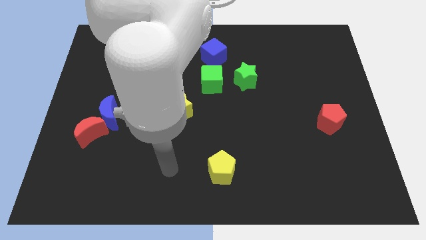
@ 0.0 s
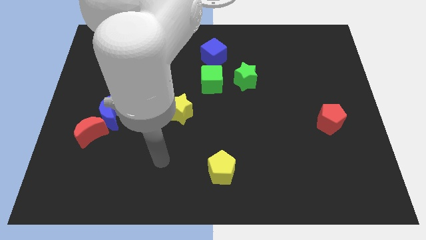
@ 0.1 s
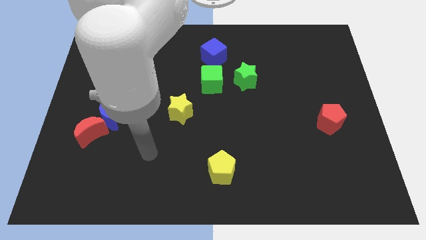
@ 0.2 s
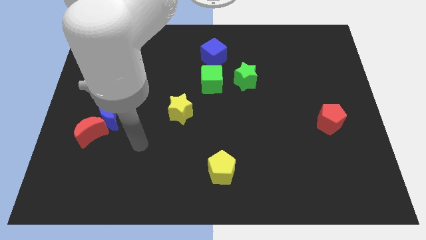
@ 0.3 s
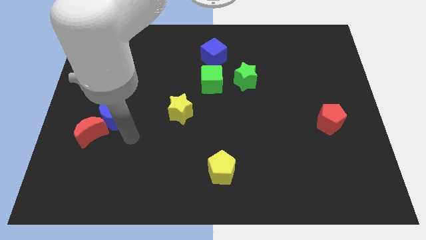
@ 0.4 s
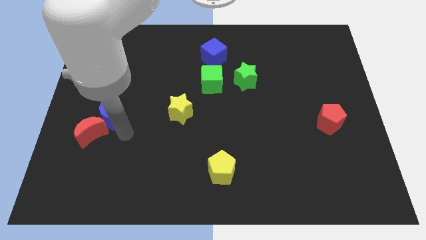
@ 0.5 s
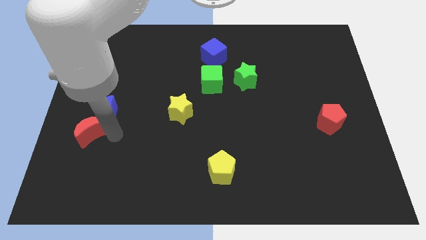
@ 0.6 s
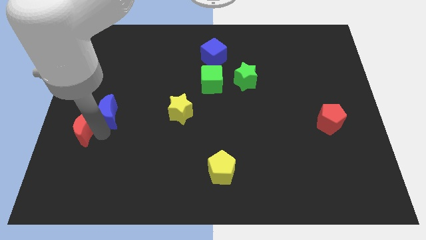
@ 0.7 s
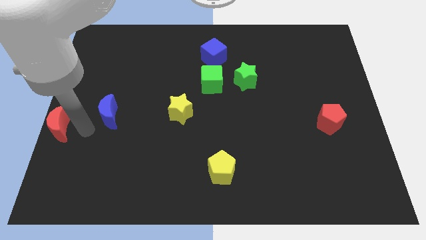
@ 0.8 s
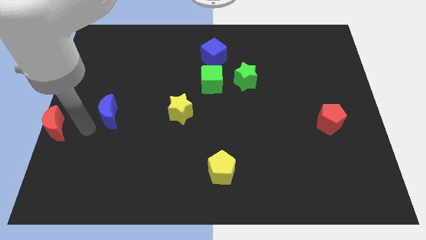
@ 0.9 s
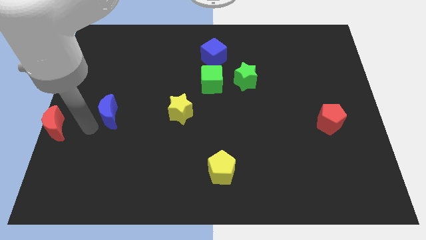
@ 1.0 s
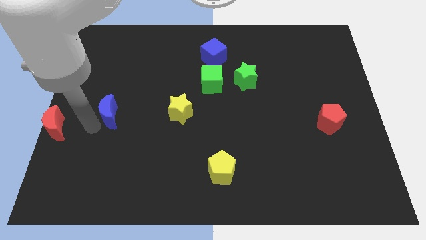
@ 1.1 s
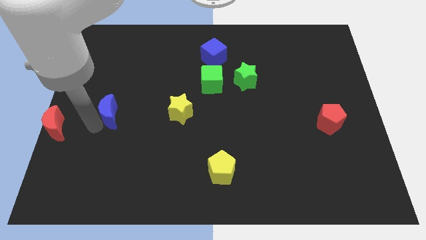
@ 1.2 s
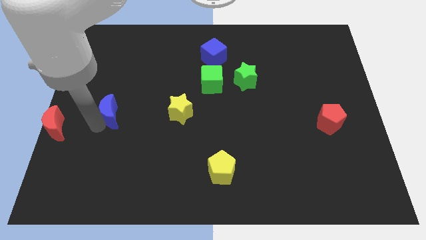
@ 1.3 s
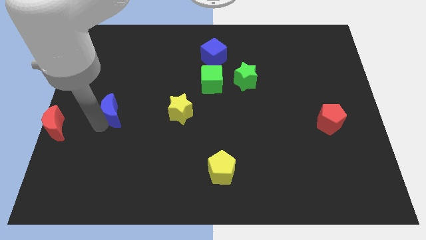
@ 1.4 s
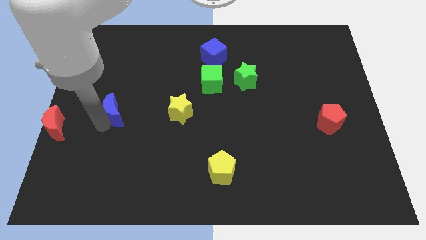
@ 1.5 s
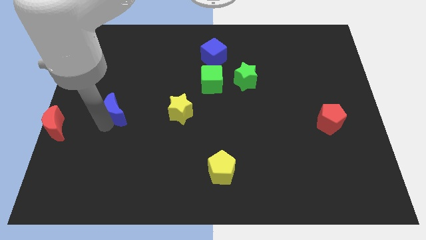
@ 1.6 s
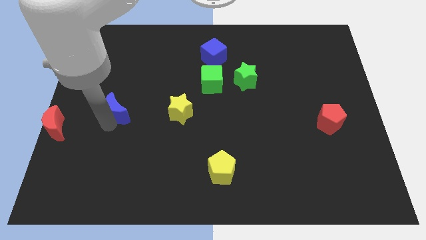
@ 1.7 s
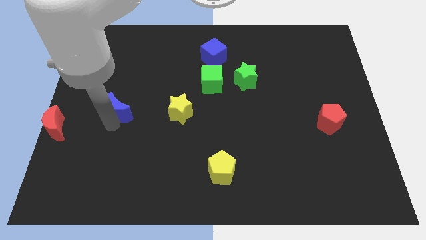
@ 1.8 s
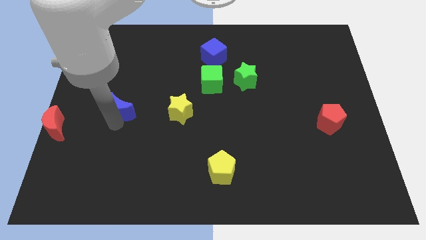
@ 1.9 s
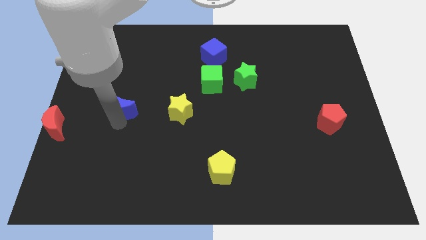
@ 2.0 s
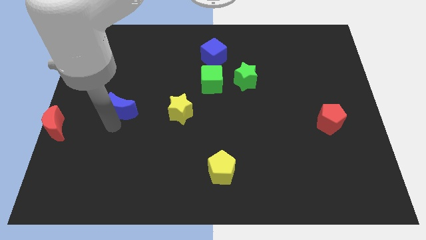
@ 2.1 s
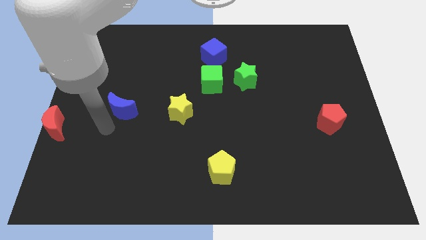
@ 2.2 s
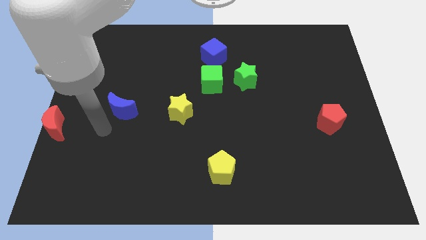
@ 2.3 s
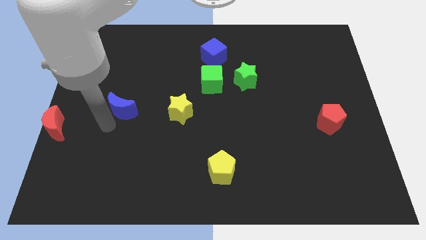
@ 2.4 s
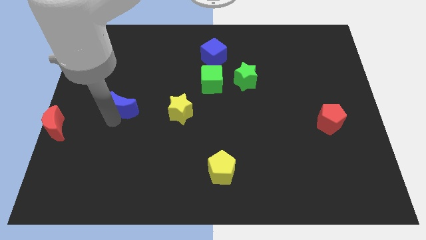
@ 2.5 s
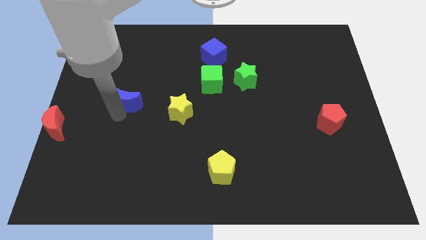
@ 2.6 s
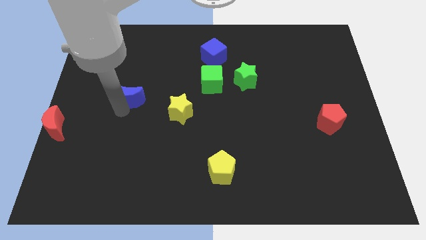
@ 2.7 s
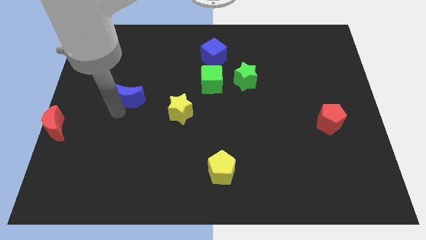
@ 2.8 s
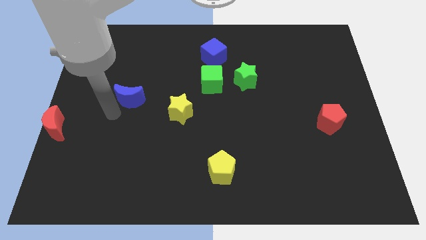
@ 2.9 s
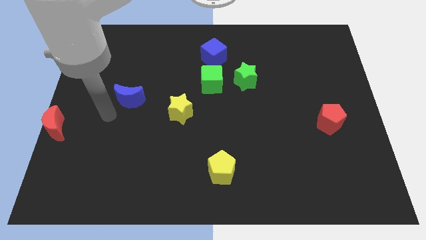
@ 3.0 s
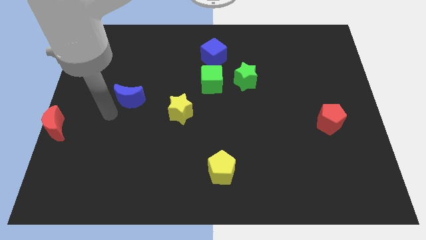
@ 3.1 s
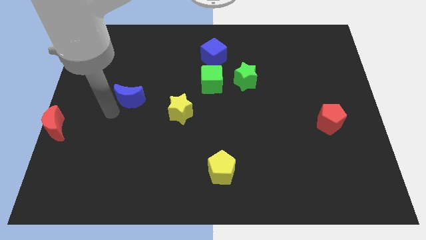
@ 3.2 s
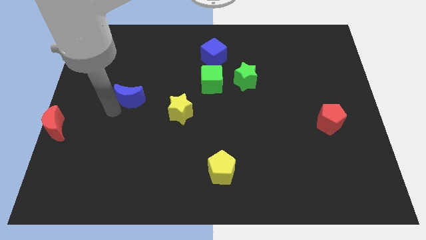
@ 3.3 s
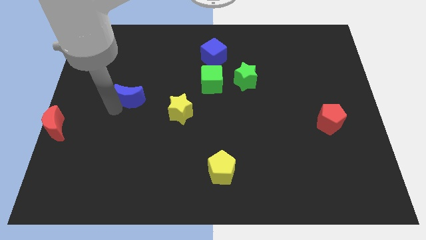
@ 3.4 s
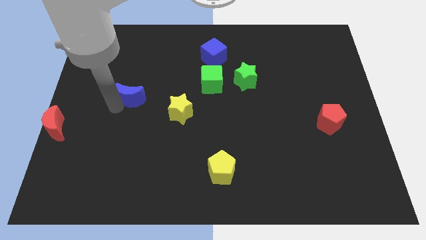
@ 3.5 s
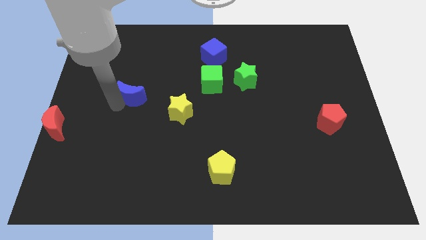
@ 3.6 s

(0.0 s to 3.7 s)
push the blue moon up and then to the right slightly

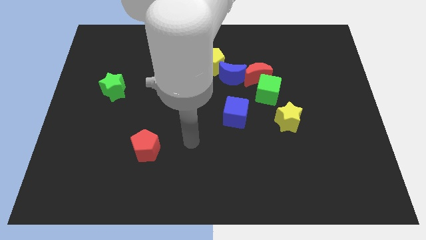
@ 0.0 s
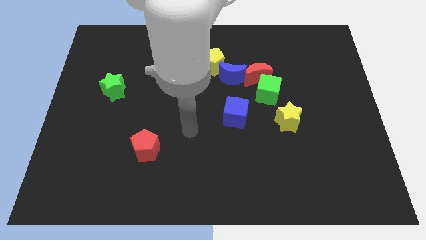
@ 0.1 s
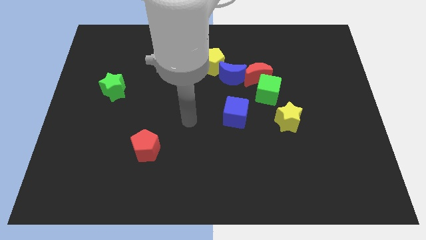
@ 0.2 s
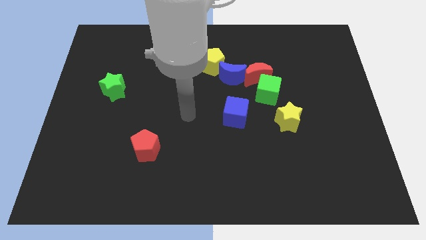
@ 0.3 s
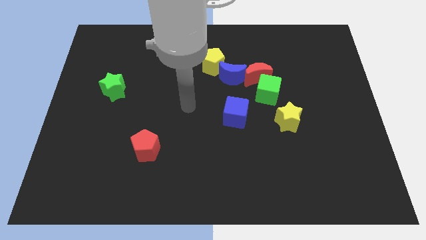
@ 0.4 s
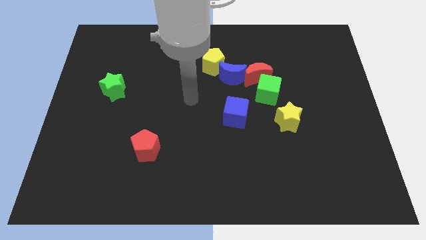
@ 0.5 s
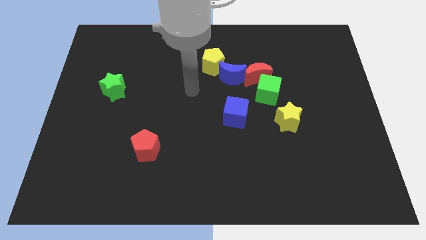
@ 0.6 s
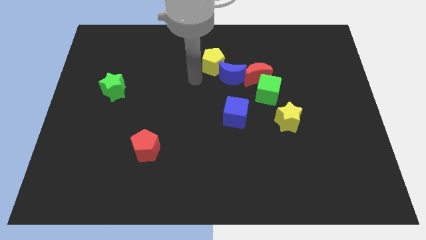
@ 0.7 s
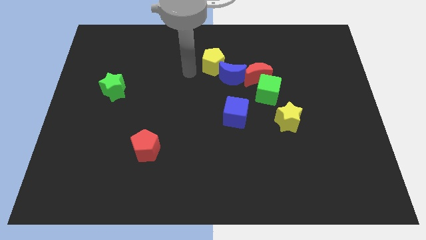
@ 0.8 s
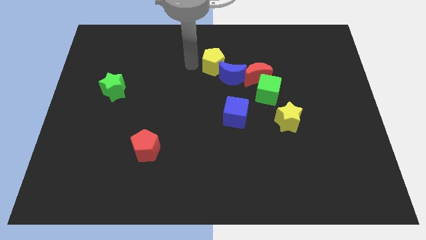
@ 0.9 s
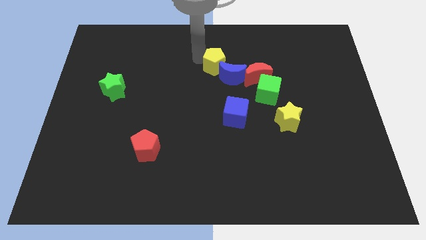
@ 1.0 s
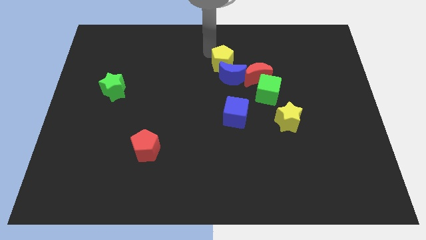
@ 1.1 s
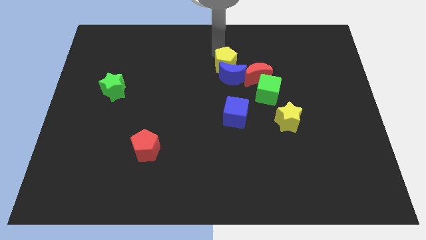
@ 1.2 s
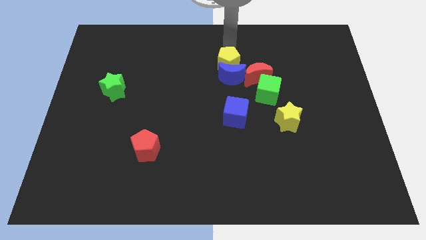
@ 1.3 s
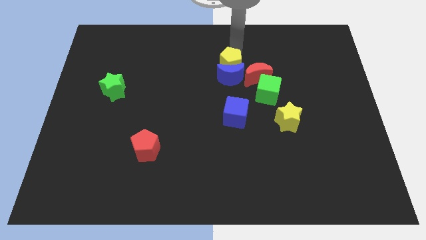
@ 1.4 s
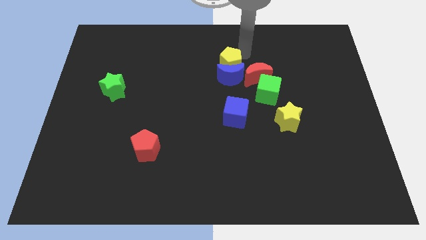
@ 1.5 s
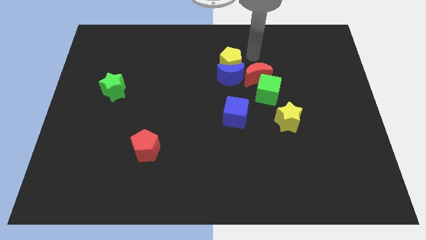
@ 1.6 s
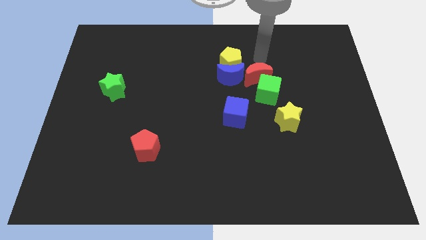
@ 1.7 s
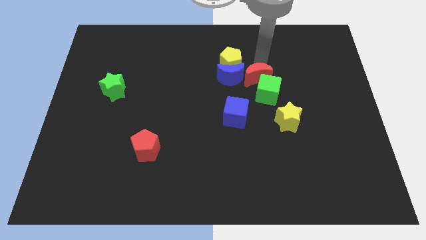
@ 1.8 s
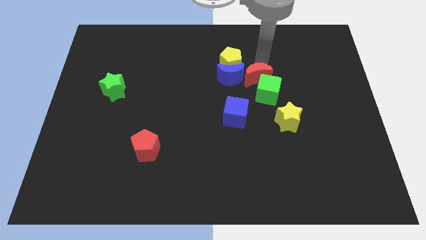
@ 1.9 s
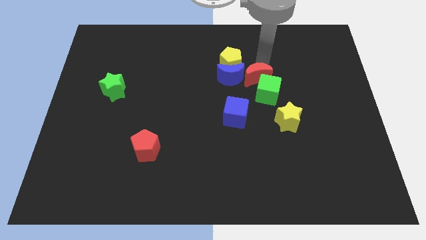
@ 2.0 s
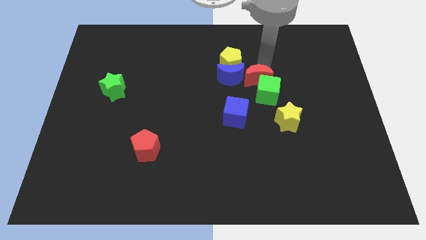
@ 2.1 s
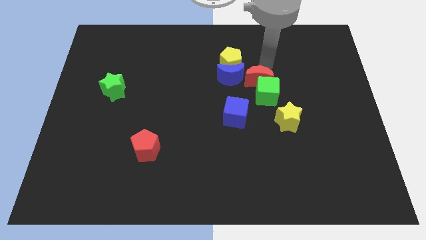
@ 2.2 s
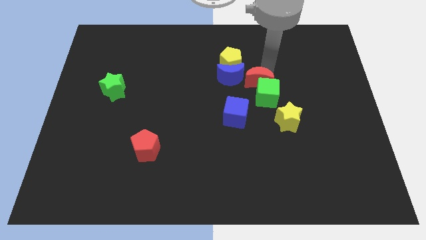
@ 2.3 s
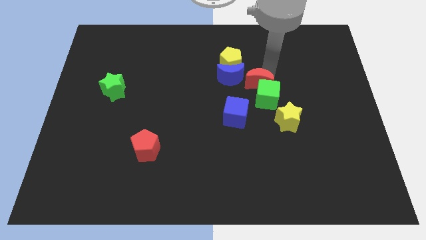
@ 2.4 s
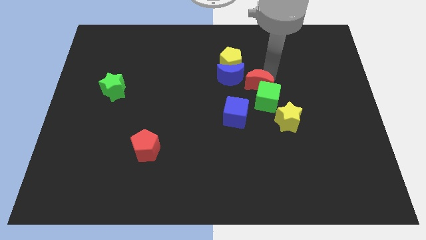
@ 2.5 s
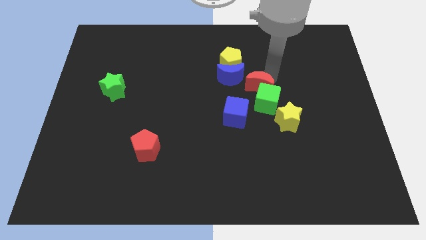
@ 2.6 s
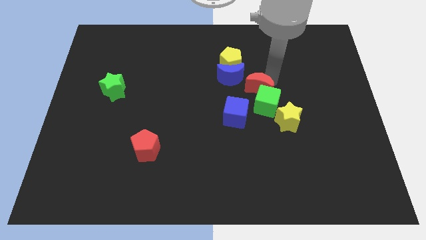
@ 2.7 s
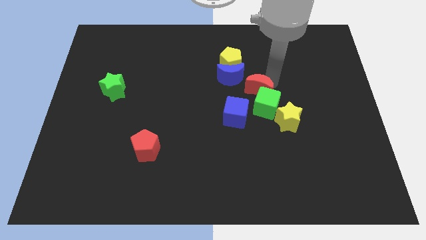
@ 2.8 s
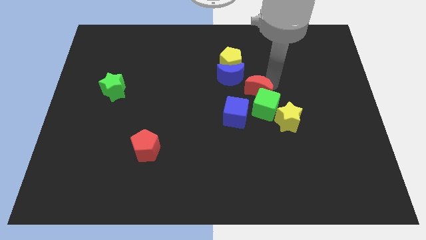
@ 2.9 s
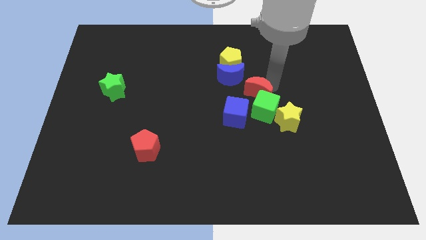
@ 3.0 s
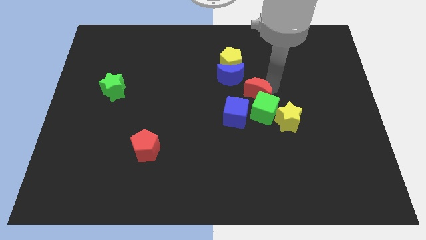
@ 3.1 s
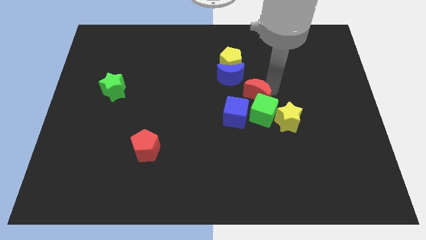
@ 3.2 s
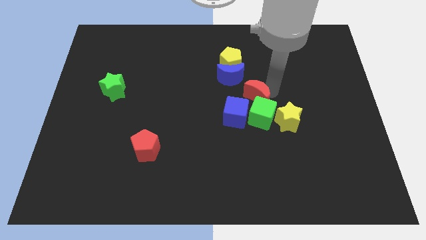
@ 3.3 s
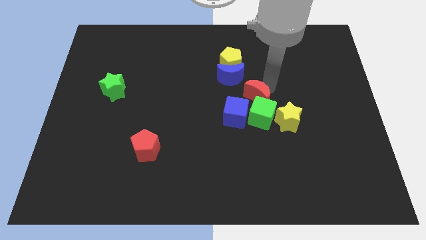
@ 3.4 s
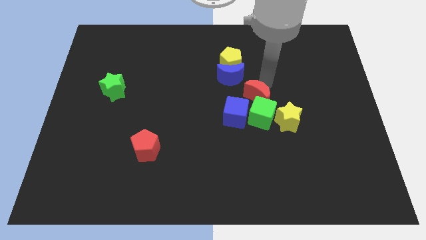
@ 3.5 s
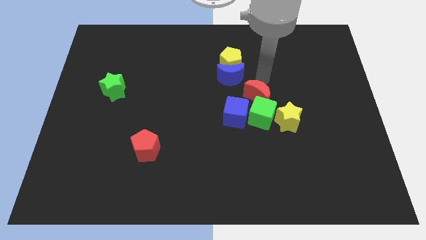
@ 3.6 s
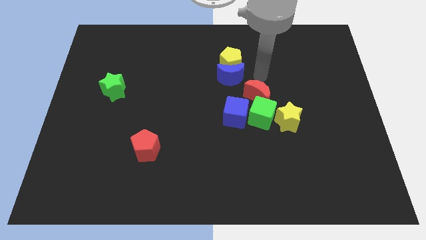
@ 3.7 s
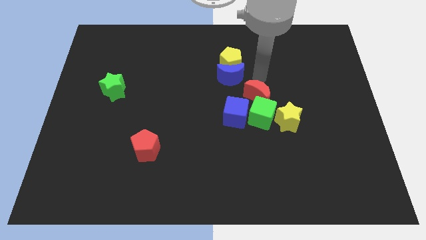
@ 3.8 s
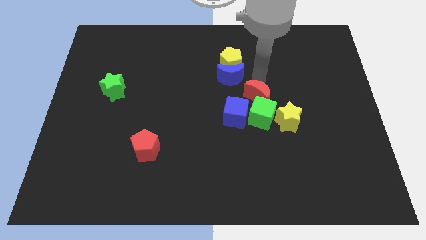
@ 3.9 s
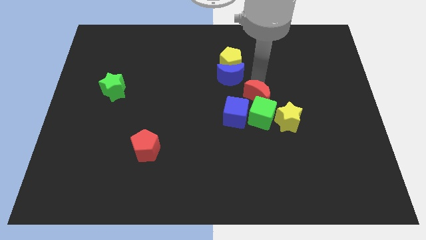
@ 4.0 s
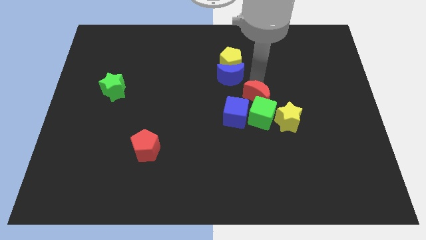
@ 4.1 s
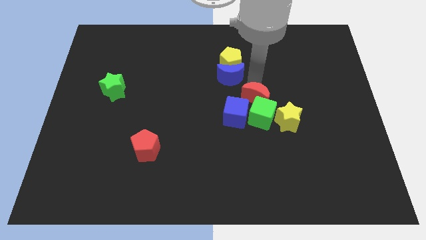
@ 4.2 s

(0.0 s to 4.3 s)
slide the red moon somewhat down
